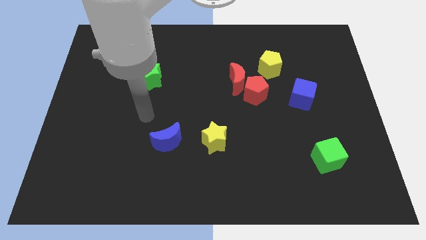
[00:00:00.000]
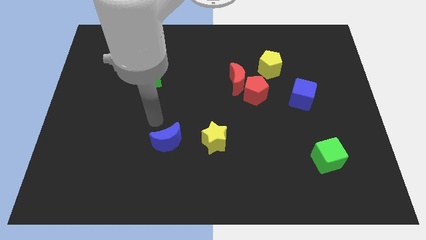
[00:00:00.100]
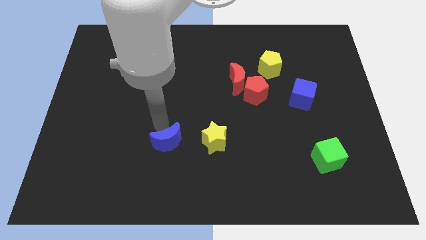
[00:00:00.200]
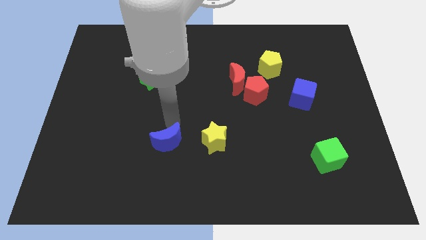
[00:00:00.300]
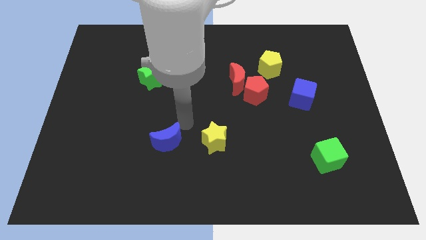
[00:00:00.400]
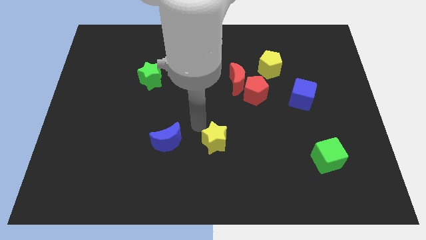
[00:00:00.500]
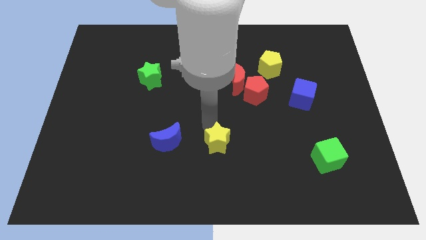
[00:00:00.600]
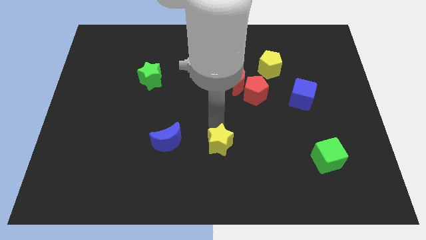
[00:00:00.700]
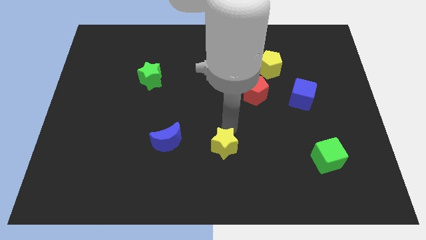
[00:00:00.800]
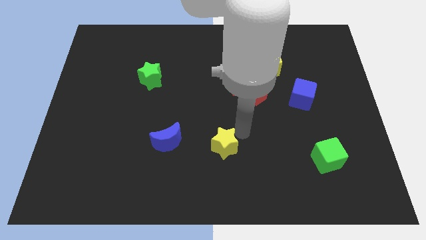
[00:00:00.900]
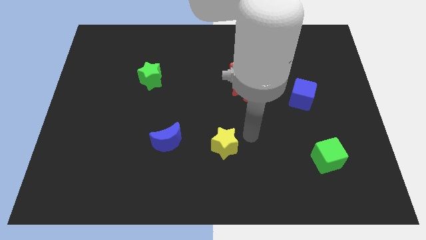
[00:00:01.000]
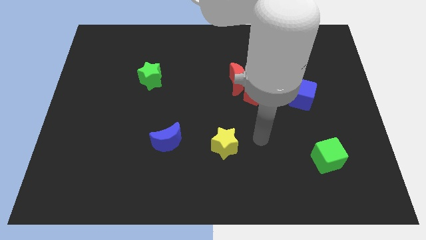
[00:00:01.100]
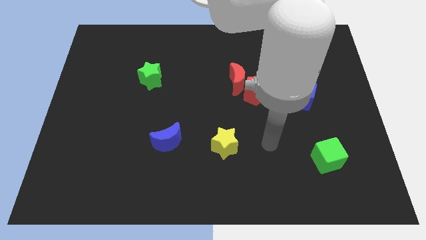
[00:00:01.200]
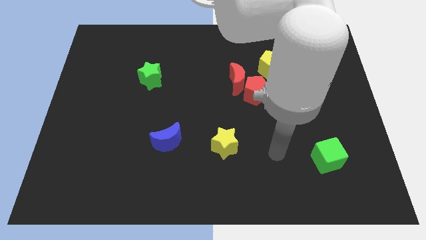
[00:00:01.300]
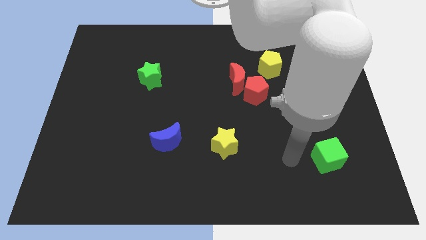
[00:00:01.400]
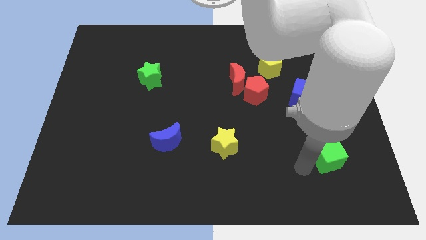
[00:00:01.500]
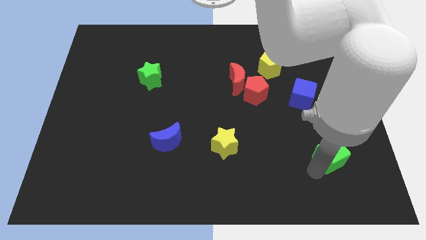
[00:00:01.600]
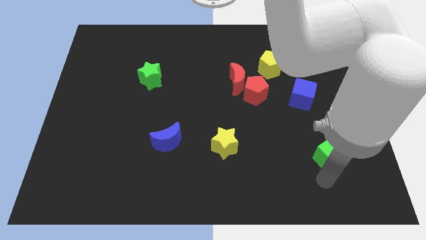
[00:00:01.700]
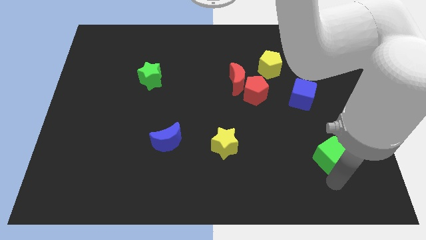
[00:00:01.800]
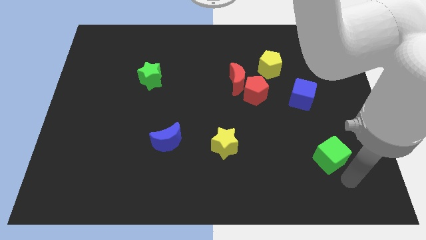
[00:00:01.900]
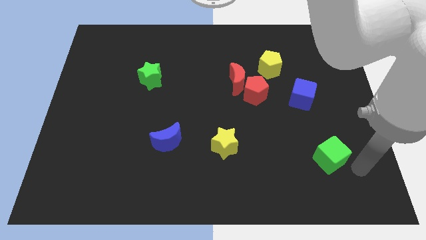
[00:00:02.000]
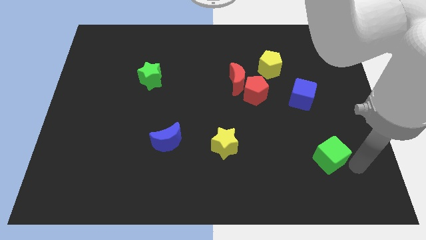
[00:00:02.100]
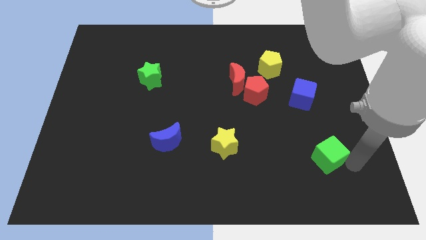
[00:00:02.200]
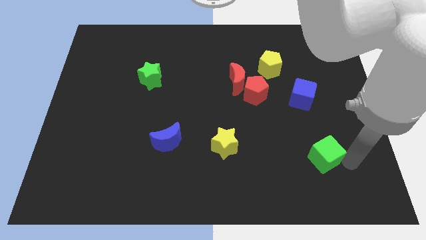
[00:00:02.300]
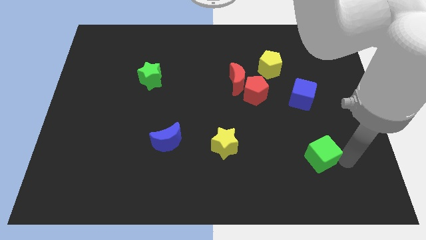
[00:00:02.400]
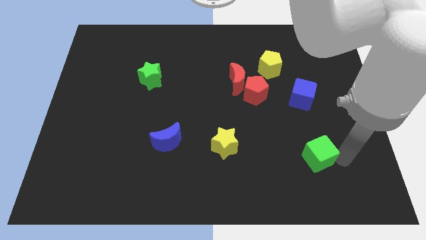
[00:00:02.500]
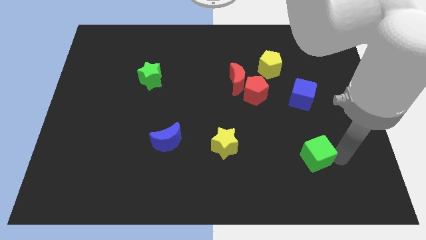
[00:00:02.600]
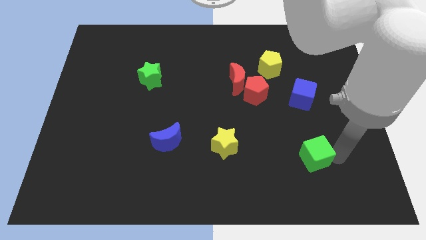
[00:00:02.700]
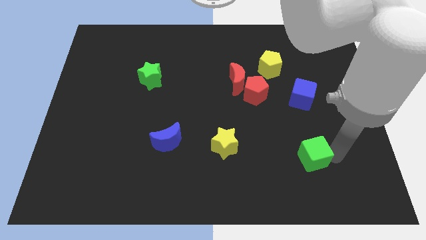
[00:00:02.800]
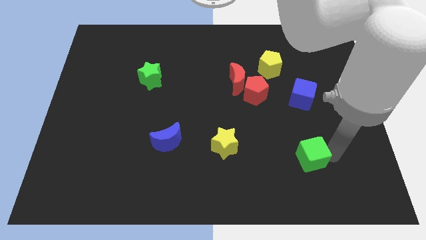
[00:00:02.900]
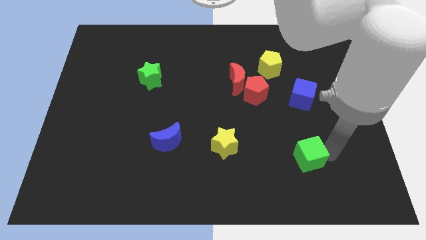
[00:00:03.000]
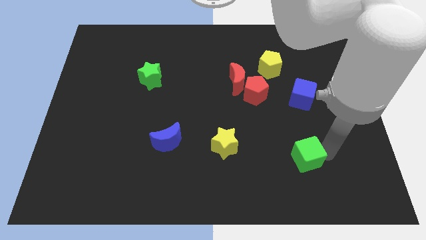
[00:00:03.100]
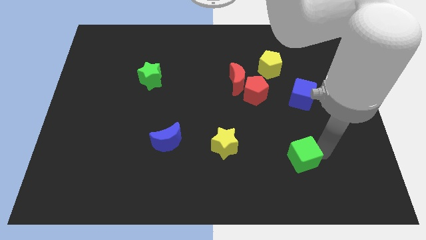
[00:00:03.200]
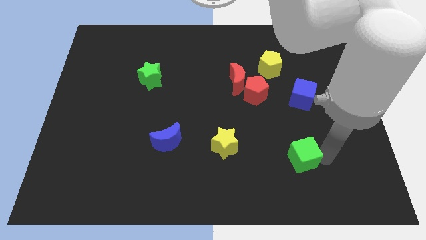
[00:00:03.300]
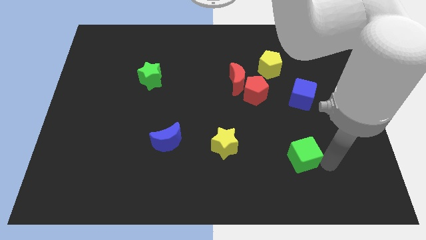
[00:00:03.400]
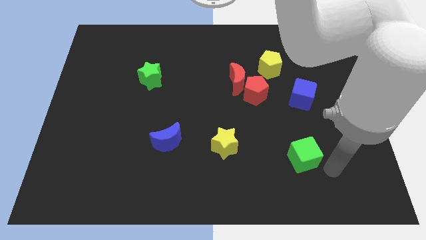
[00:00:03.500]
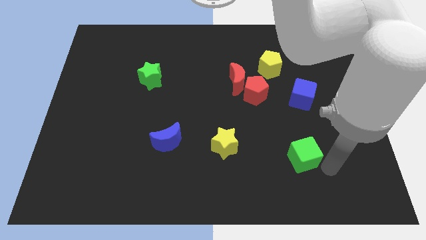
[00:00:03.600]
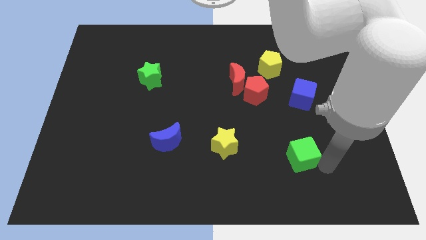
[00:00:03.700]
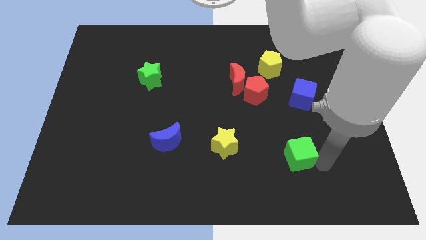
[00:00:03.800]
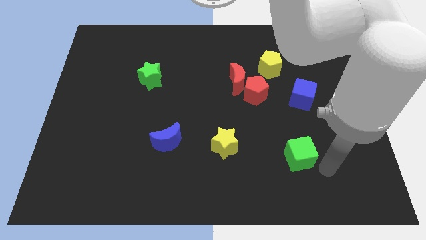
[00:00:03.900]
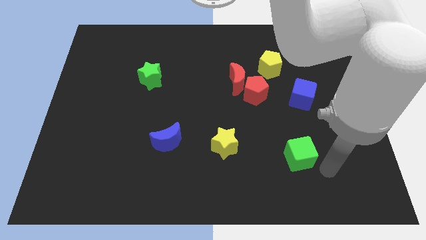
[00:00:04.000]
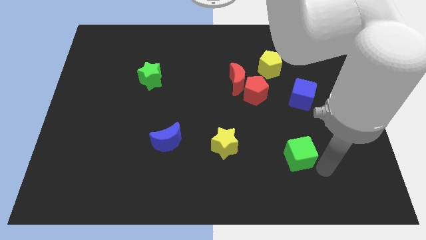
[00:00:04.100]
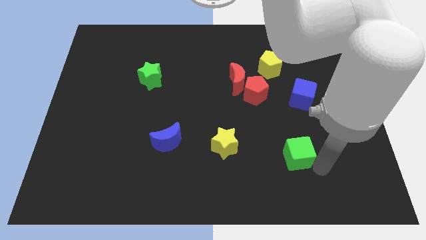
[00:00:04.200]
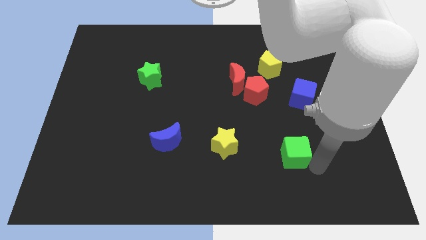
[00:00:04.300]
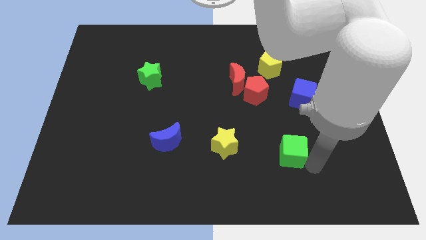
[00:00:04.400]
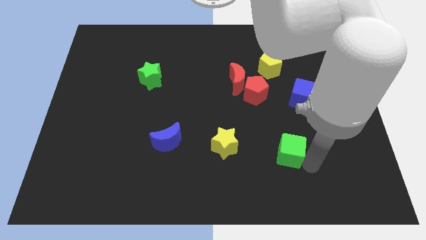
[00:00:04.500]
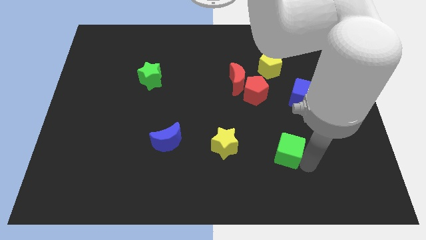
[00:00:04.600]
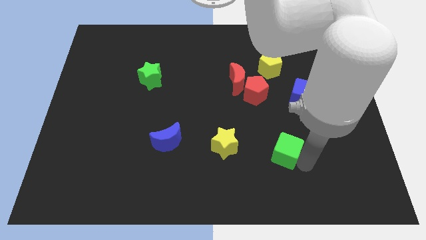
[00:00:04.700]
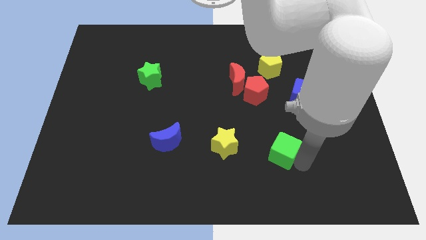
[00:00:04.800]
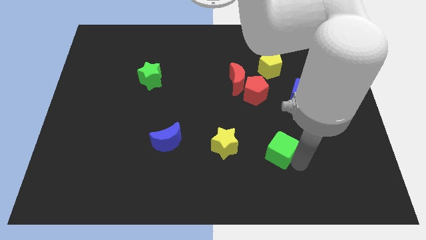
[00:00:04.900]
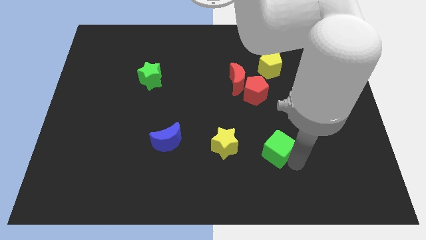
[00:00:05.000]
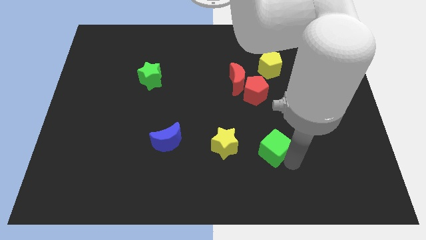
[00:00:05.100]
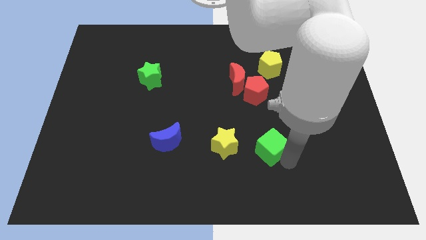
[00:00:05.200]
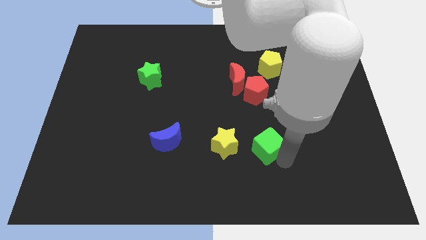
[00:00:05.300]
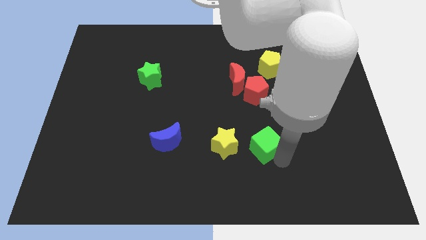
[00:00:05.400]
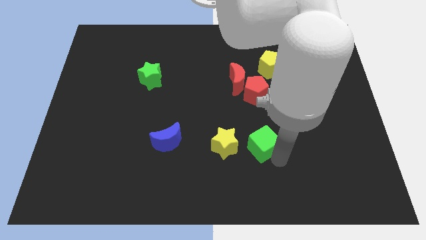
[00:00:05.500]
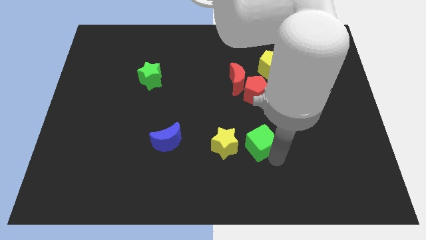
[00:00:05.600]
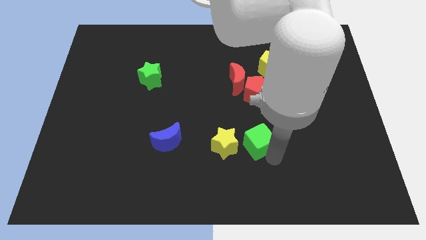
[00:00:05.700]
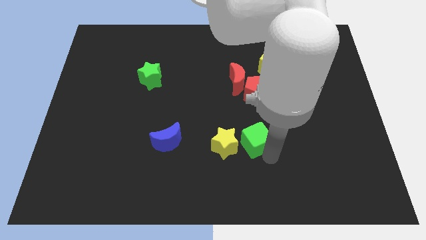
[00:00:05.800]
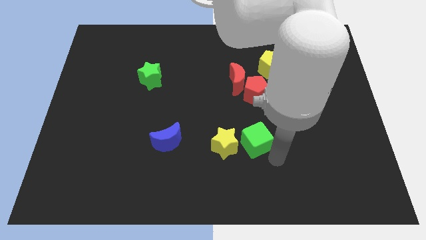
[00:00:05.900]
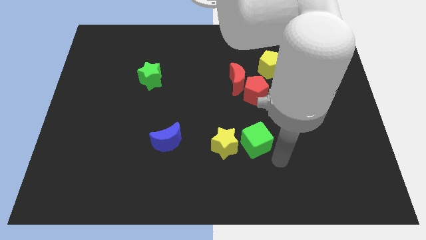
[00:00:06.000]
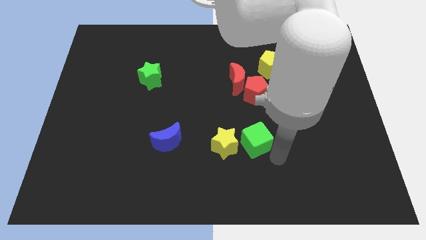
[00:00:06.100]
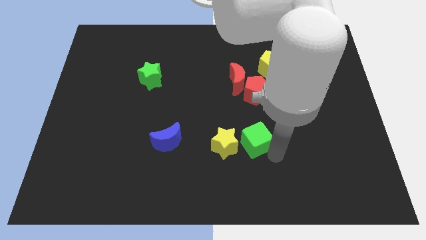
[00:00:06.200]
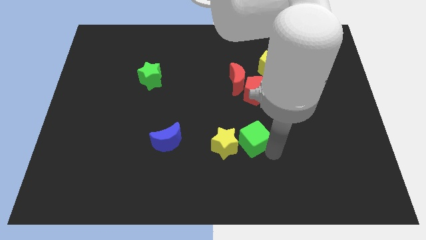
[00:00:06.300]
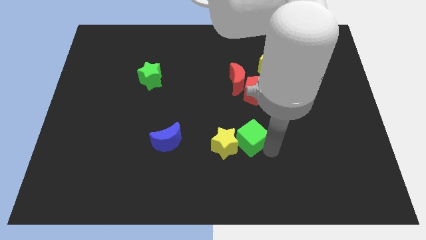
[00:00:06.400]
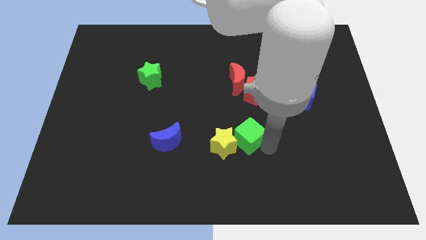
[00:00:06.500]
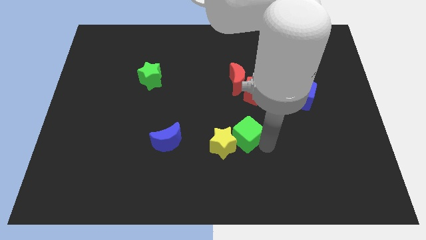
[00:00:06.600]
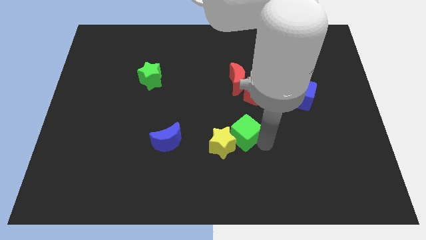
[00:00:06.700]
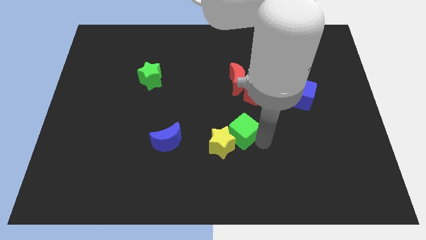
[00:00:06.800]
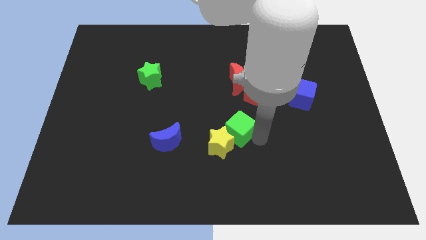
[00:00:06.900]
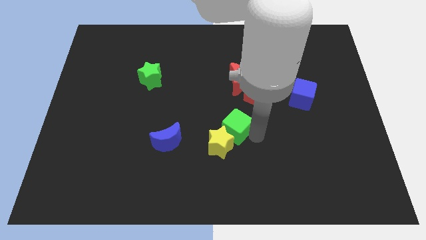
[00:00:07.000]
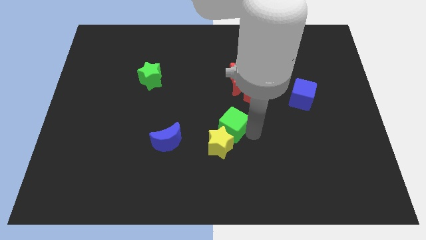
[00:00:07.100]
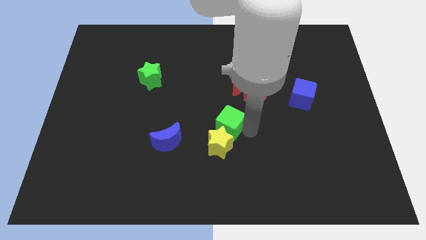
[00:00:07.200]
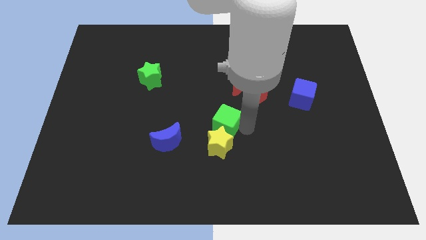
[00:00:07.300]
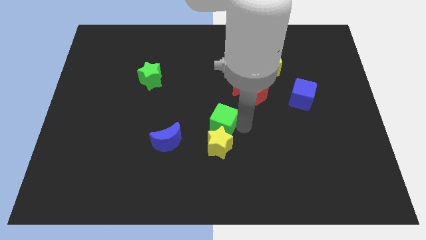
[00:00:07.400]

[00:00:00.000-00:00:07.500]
push the green cube diagonally up and to the left of the yellow star
